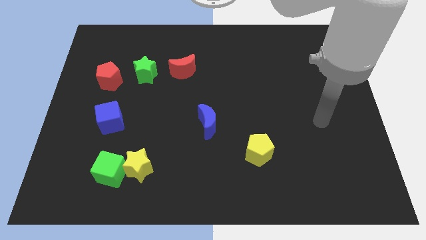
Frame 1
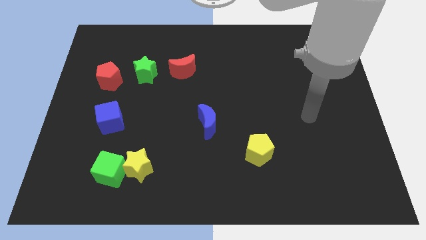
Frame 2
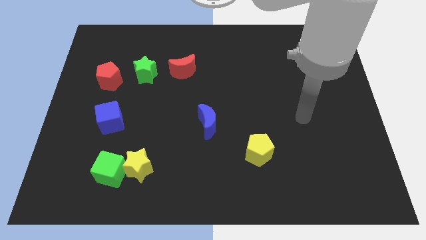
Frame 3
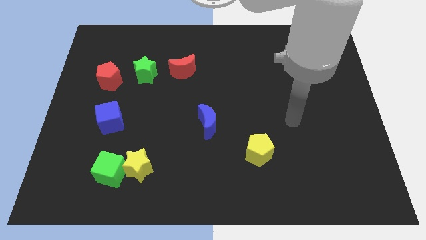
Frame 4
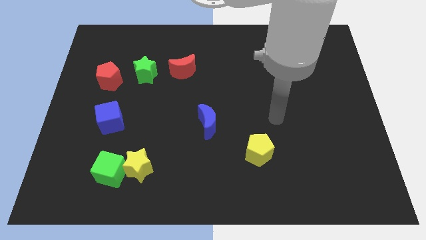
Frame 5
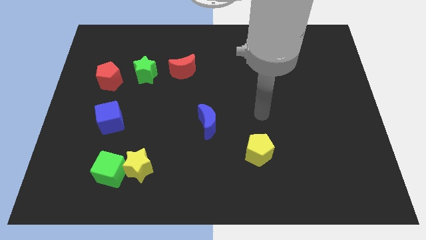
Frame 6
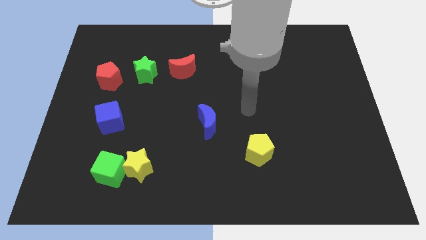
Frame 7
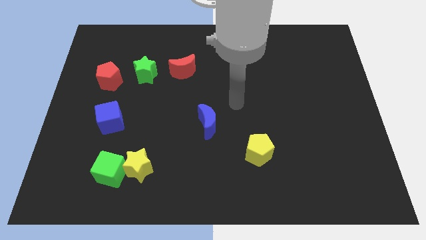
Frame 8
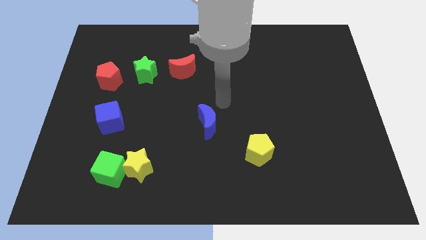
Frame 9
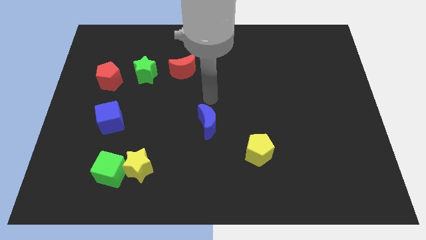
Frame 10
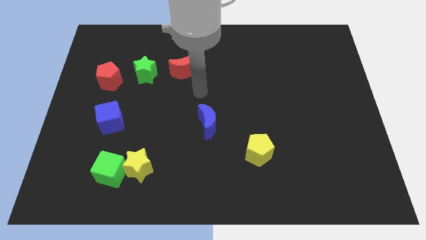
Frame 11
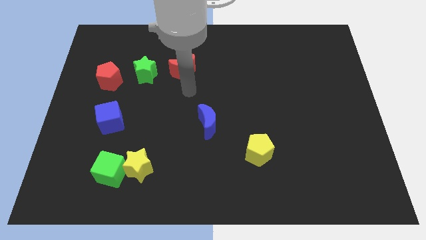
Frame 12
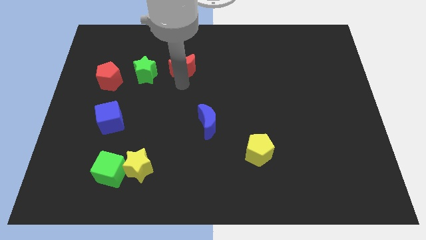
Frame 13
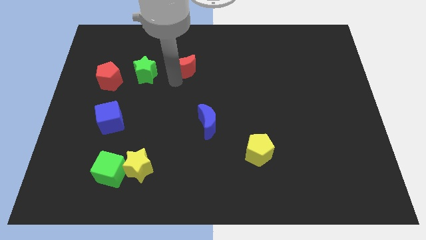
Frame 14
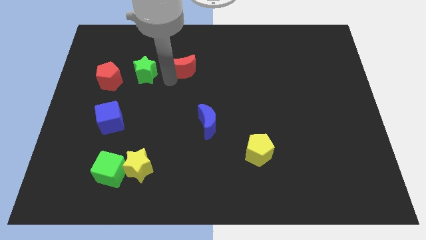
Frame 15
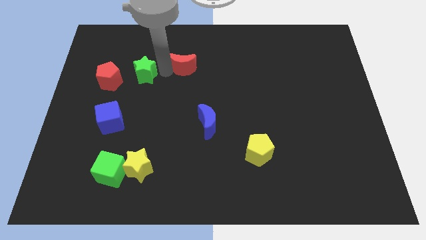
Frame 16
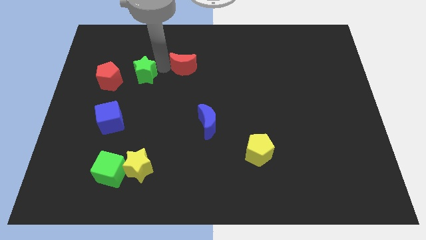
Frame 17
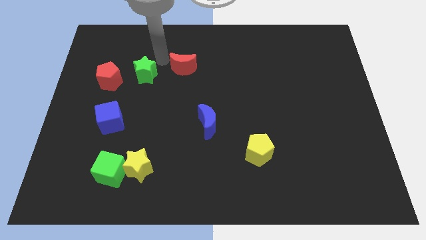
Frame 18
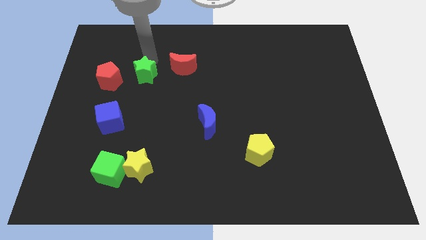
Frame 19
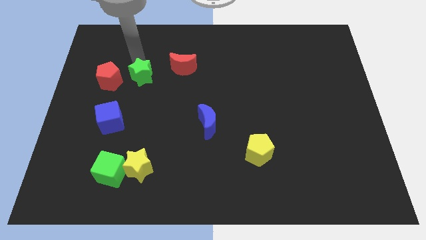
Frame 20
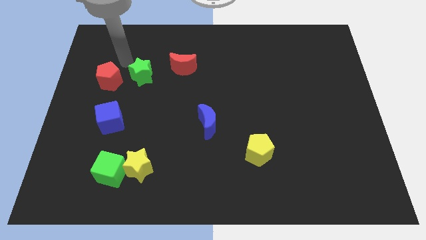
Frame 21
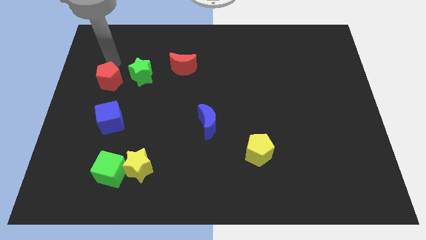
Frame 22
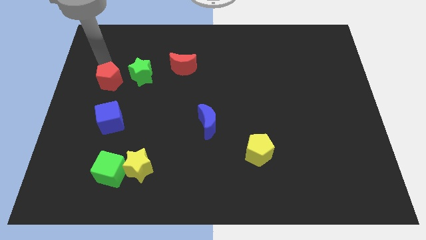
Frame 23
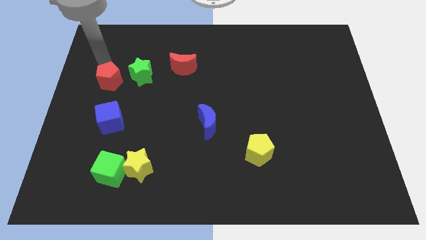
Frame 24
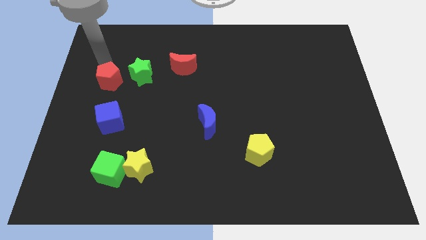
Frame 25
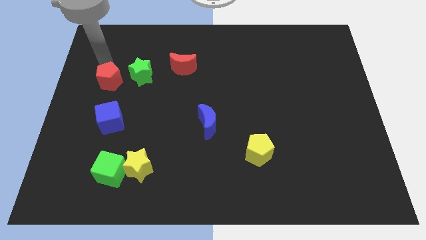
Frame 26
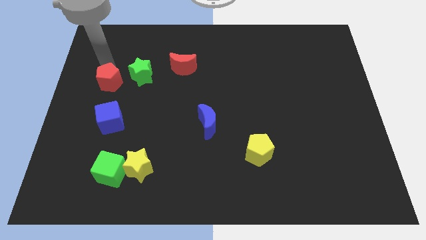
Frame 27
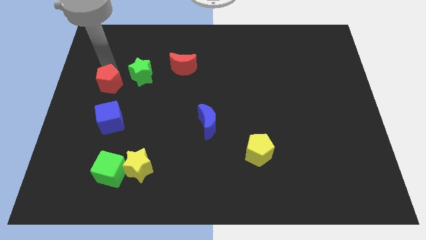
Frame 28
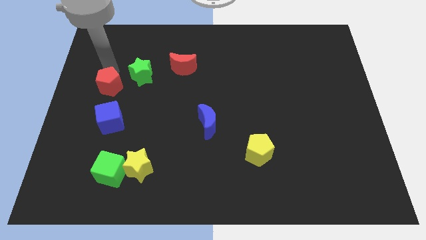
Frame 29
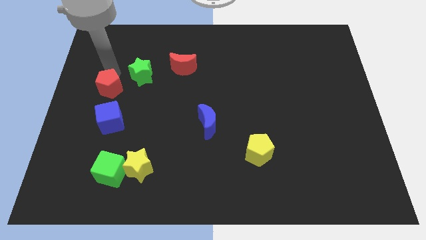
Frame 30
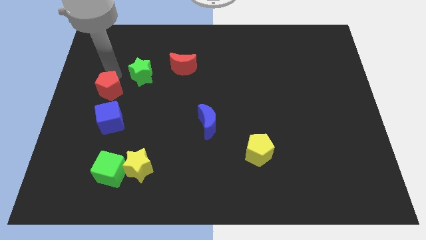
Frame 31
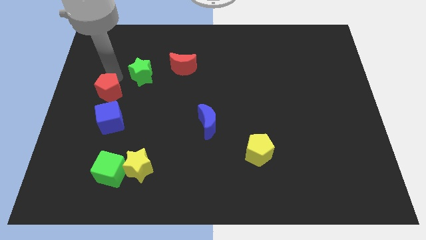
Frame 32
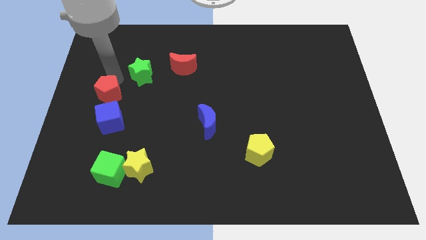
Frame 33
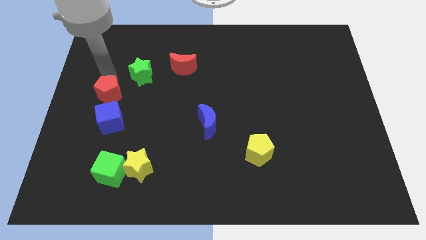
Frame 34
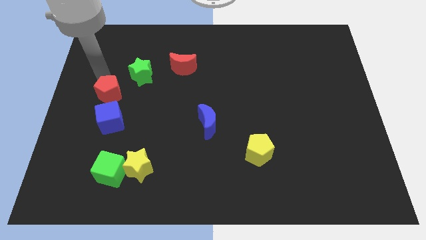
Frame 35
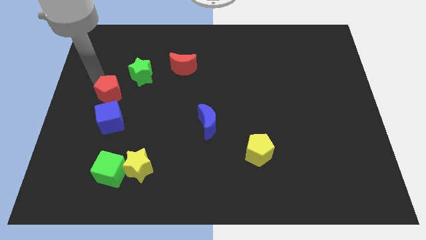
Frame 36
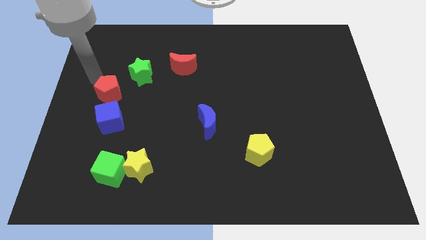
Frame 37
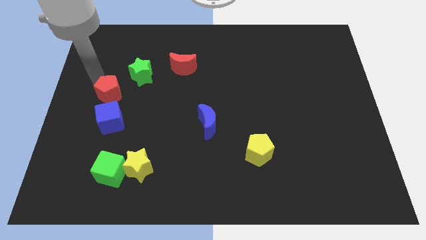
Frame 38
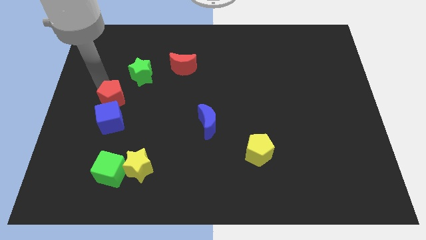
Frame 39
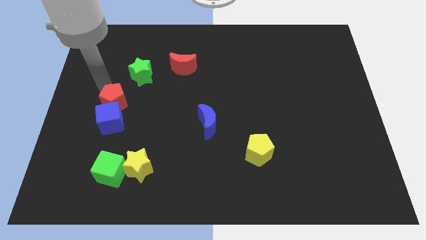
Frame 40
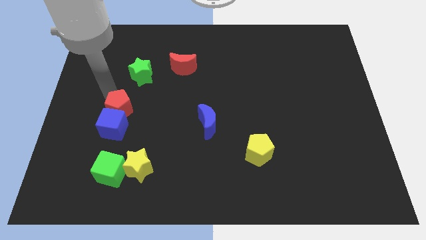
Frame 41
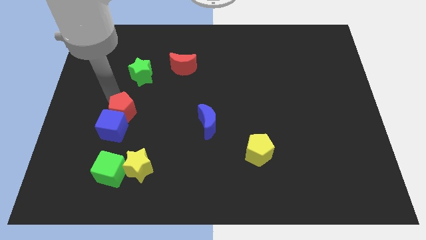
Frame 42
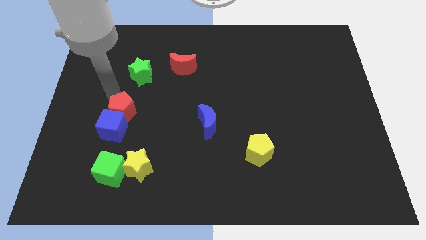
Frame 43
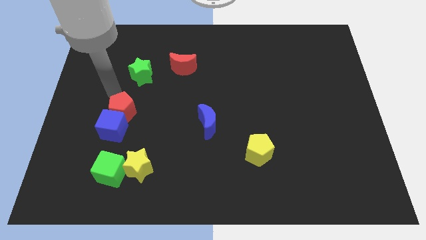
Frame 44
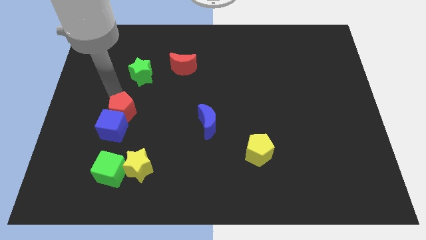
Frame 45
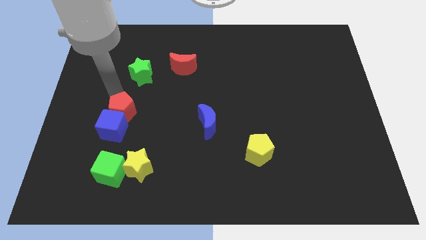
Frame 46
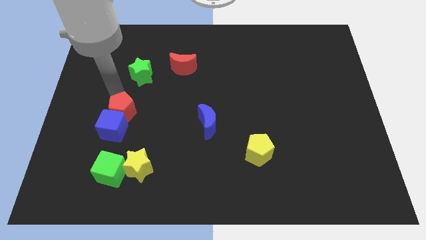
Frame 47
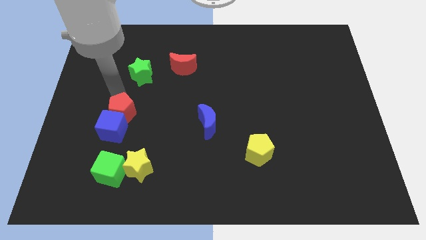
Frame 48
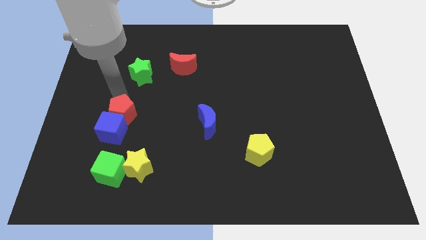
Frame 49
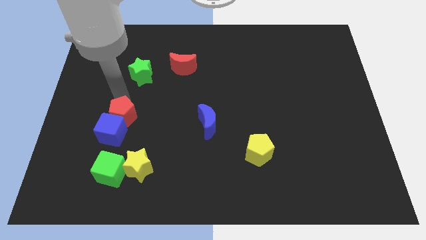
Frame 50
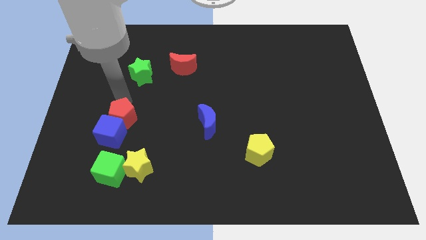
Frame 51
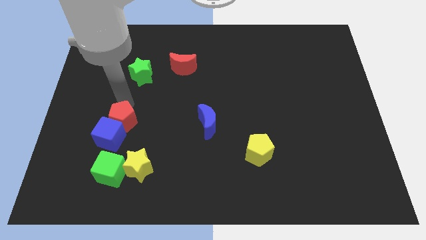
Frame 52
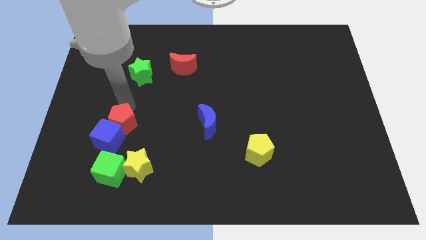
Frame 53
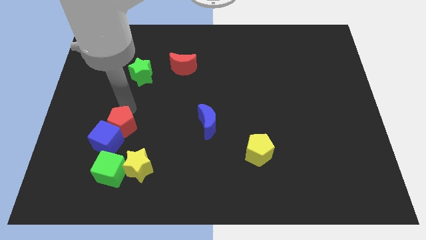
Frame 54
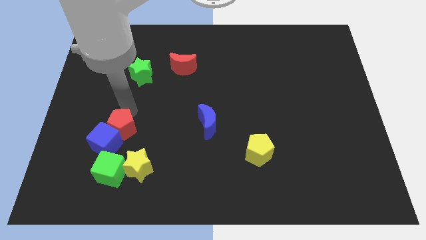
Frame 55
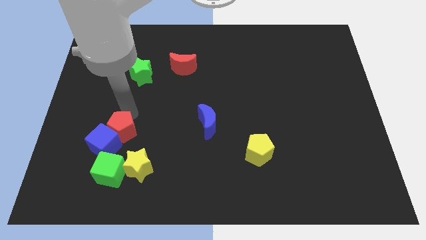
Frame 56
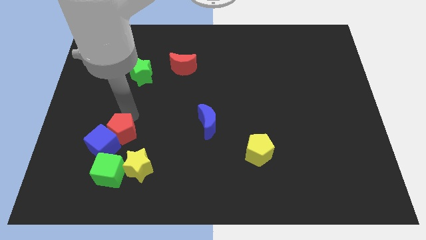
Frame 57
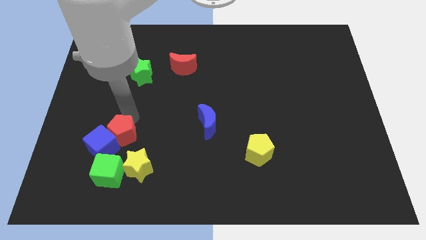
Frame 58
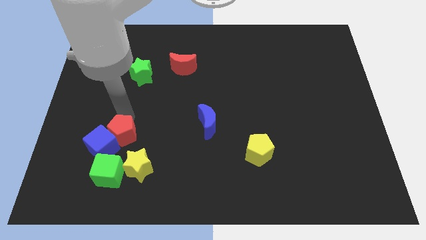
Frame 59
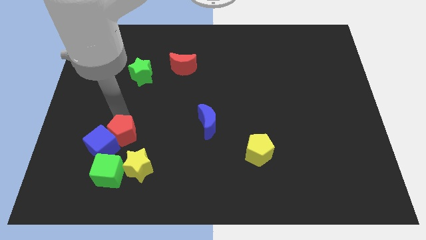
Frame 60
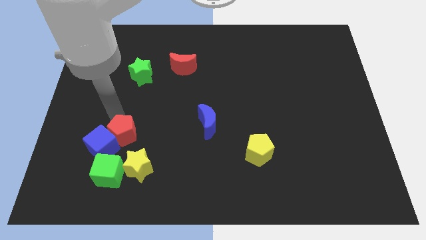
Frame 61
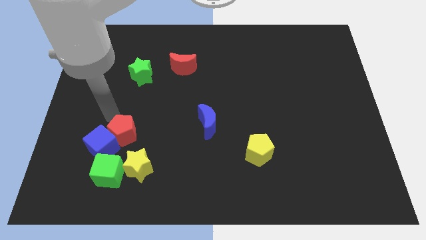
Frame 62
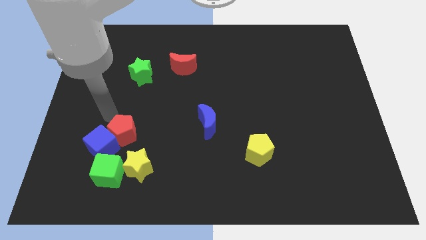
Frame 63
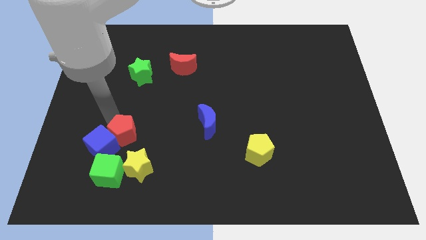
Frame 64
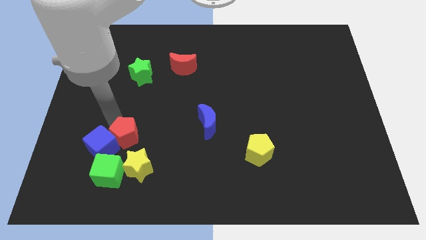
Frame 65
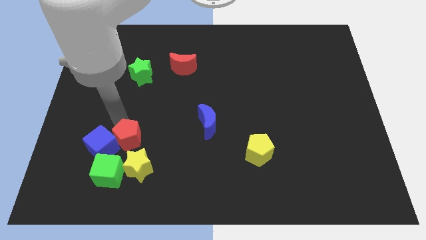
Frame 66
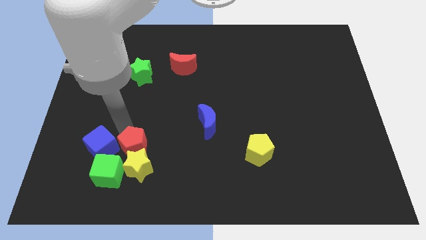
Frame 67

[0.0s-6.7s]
put the red pentagon to the yellow star
